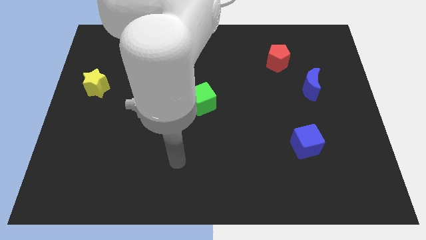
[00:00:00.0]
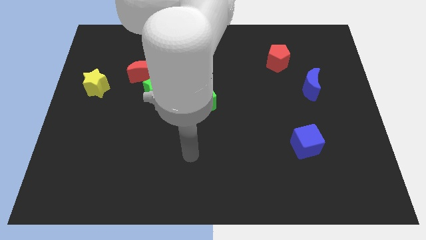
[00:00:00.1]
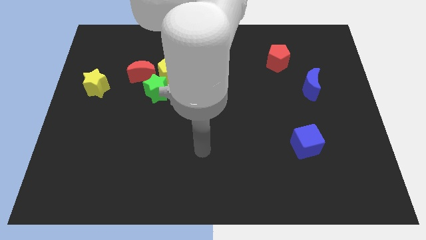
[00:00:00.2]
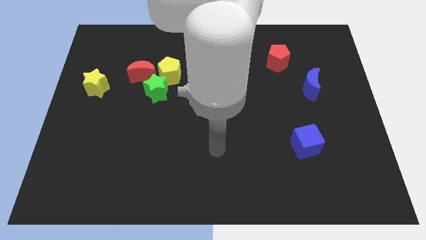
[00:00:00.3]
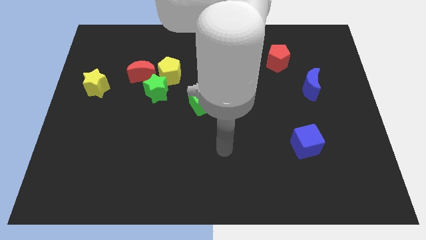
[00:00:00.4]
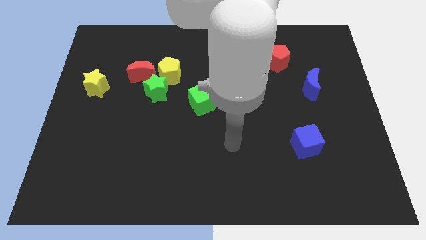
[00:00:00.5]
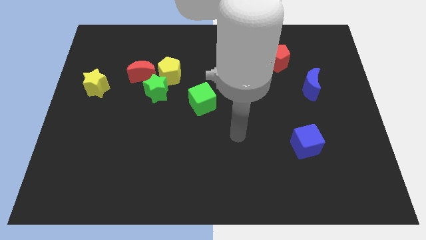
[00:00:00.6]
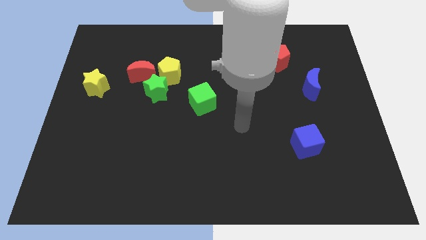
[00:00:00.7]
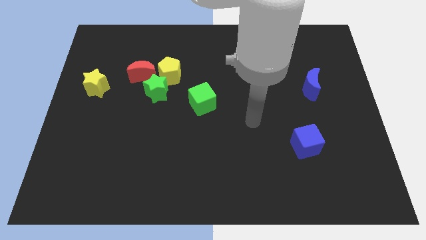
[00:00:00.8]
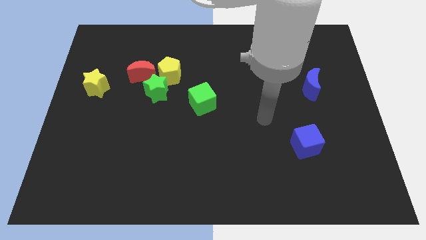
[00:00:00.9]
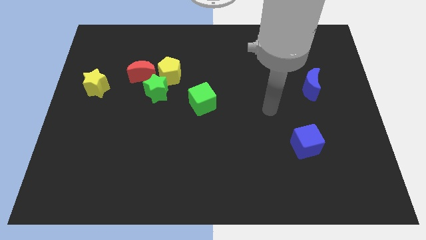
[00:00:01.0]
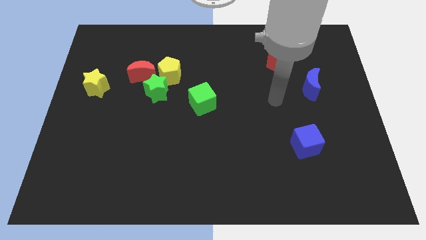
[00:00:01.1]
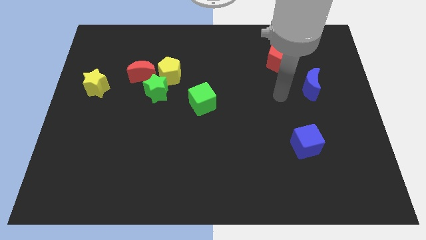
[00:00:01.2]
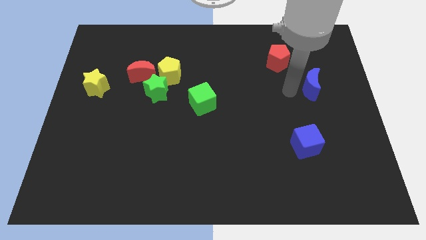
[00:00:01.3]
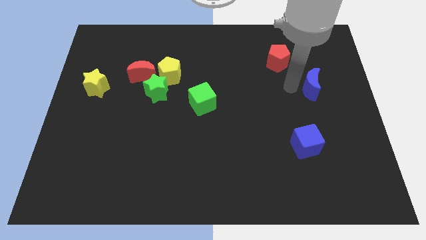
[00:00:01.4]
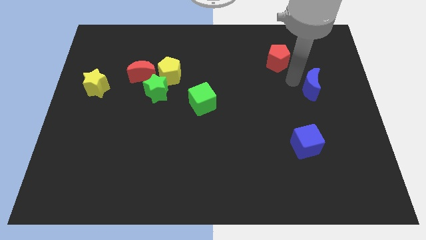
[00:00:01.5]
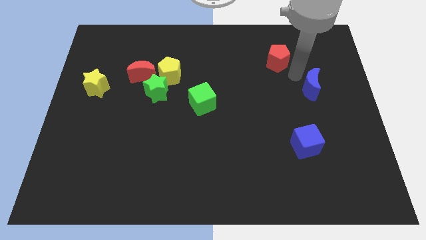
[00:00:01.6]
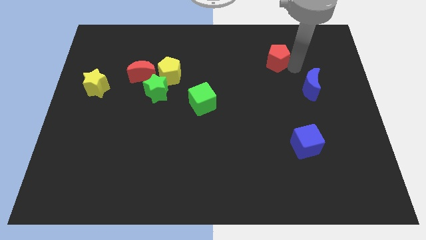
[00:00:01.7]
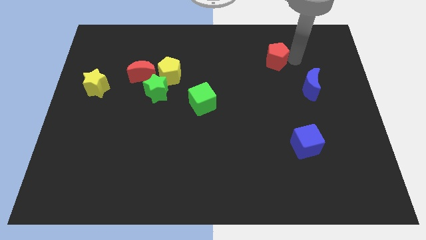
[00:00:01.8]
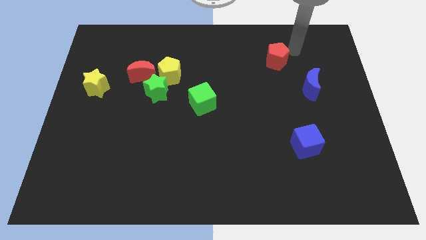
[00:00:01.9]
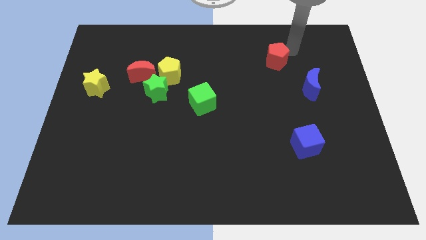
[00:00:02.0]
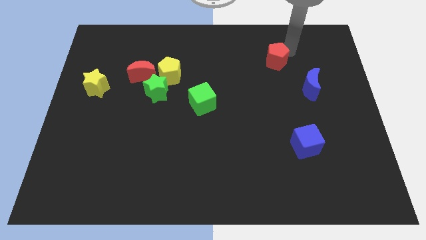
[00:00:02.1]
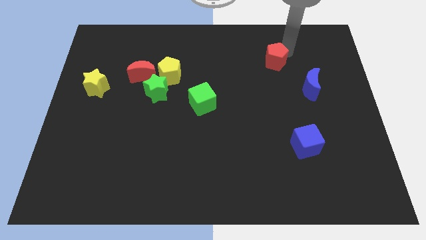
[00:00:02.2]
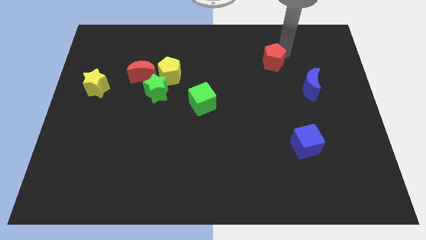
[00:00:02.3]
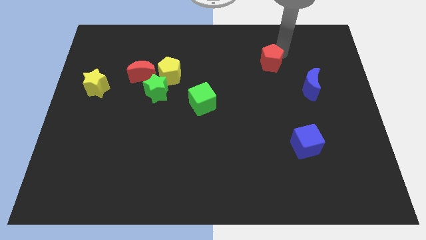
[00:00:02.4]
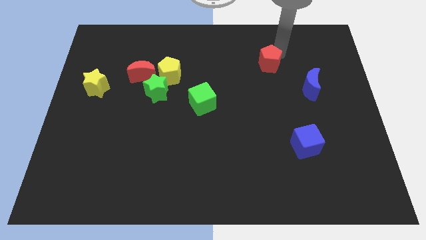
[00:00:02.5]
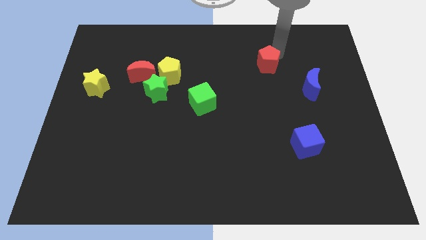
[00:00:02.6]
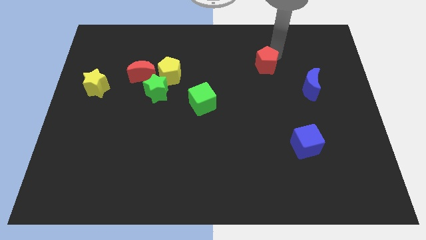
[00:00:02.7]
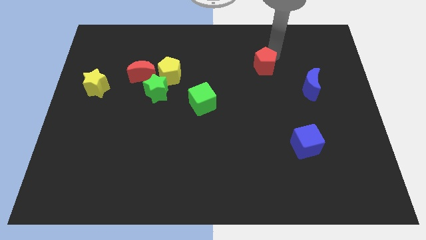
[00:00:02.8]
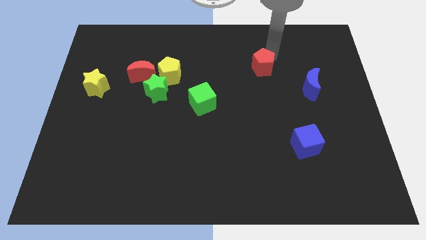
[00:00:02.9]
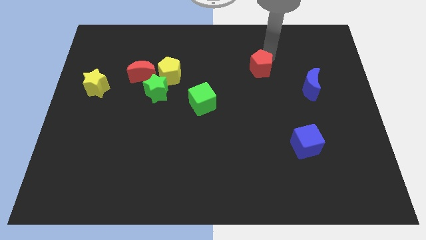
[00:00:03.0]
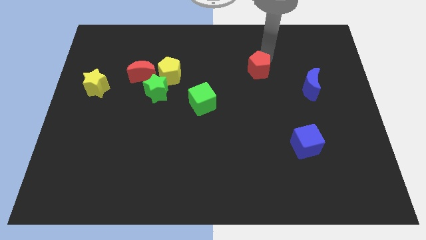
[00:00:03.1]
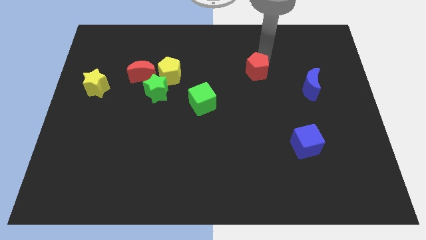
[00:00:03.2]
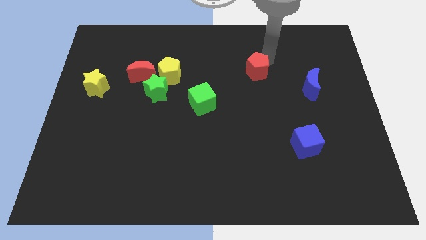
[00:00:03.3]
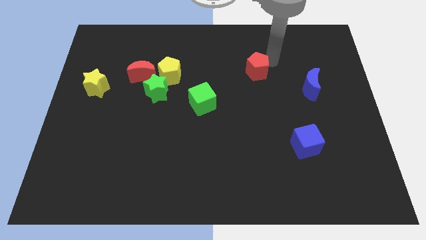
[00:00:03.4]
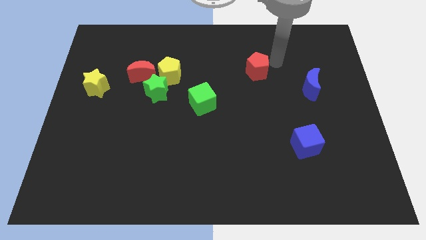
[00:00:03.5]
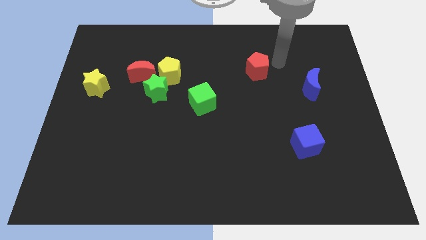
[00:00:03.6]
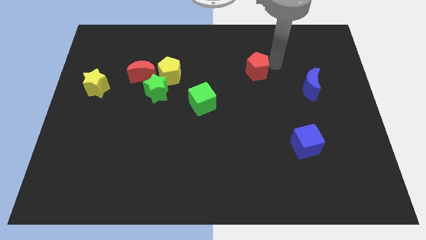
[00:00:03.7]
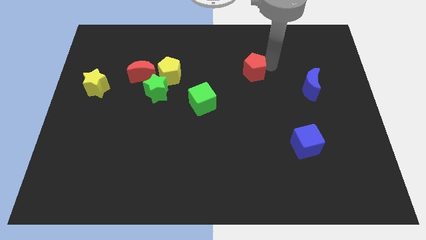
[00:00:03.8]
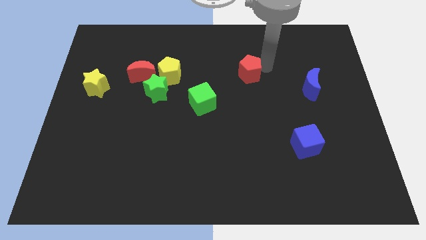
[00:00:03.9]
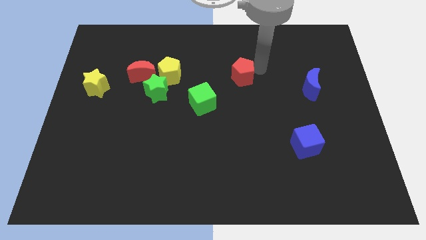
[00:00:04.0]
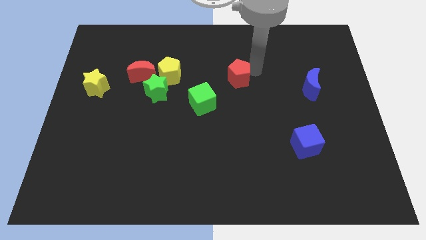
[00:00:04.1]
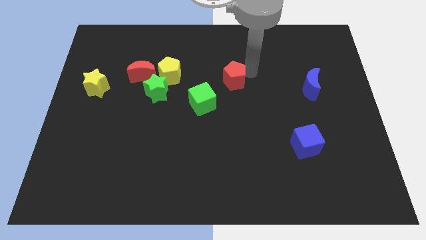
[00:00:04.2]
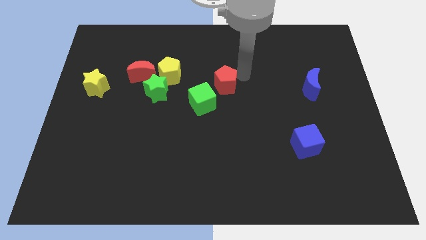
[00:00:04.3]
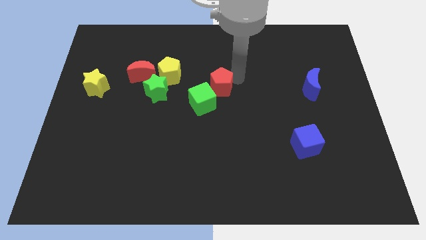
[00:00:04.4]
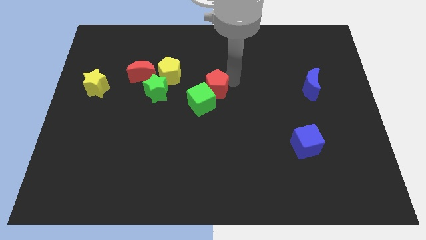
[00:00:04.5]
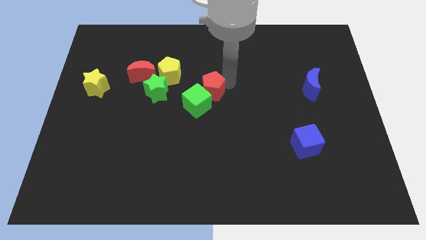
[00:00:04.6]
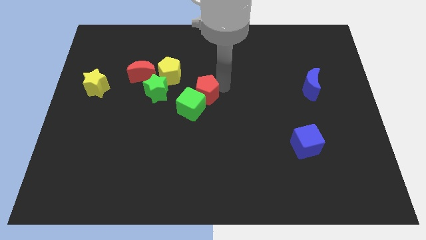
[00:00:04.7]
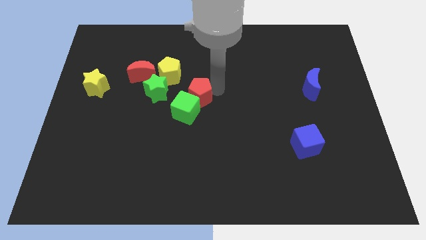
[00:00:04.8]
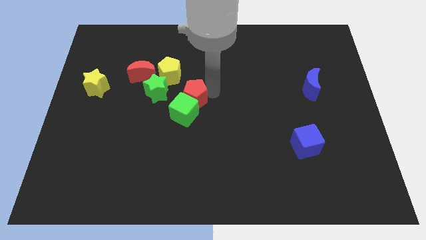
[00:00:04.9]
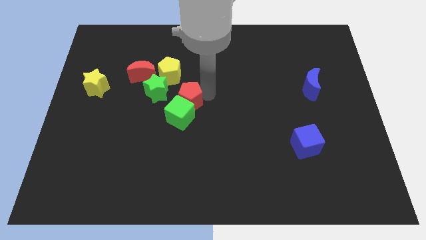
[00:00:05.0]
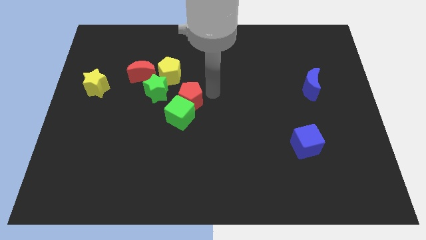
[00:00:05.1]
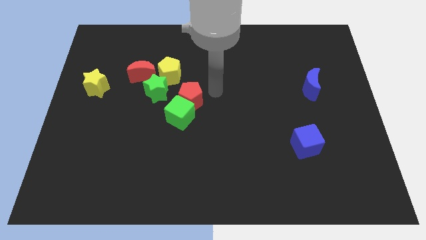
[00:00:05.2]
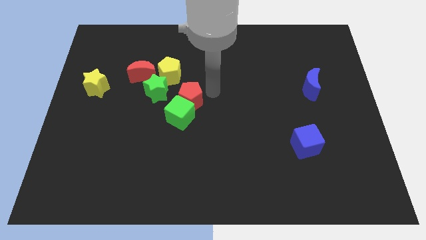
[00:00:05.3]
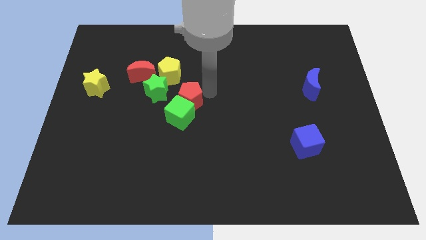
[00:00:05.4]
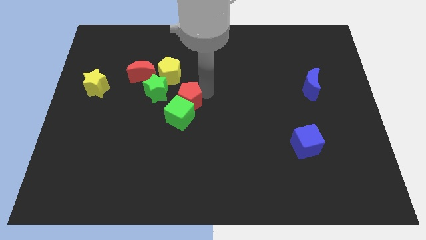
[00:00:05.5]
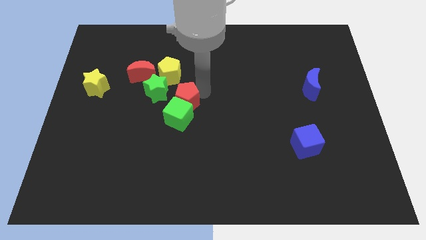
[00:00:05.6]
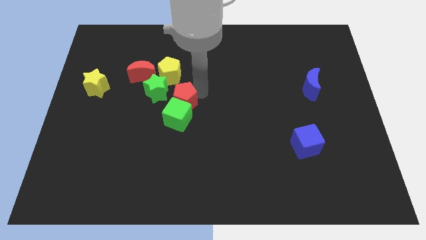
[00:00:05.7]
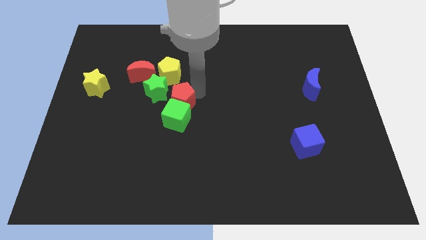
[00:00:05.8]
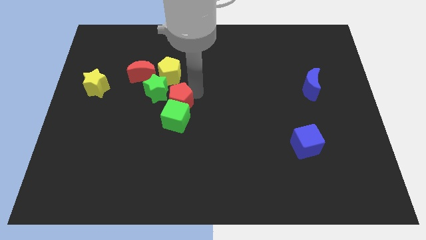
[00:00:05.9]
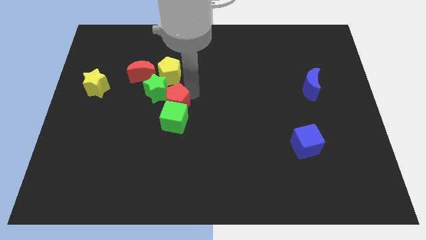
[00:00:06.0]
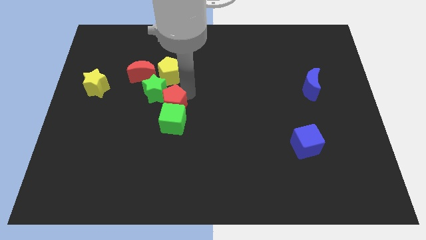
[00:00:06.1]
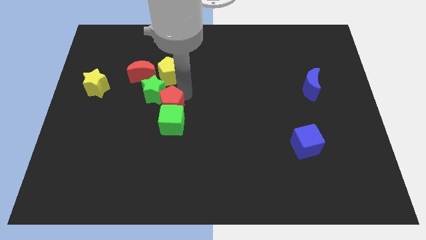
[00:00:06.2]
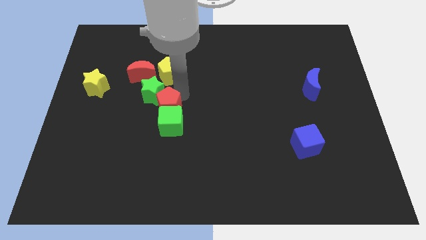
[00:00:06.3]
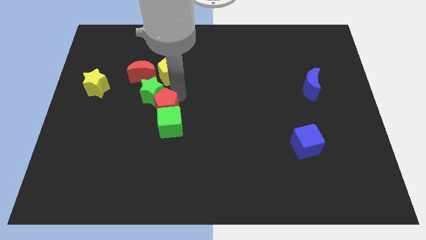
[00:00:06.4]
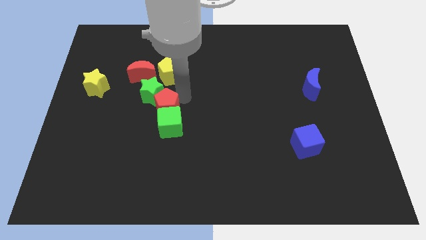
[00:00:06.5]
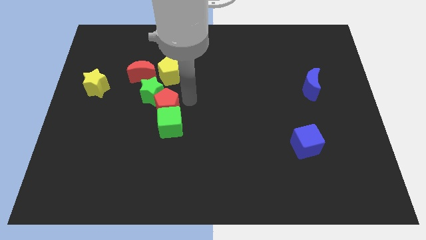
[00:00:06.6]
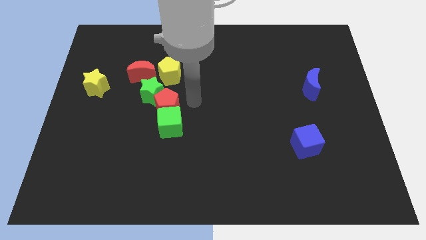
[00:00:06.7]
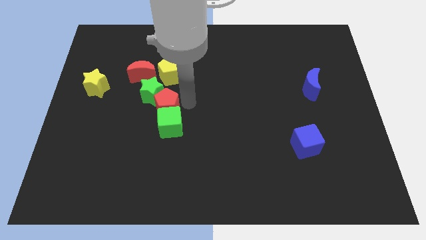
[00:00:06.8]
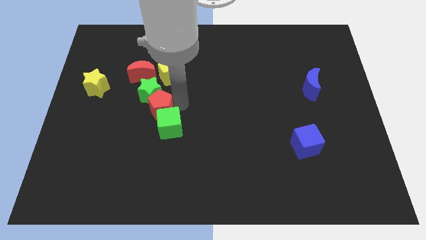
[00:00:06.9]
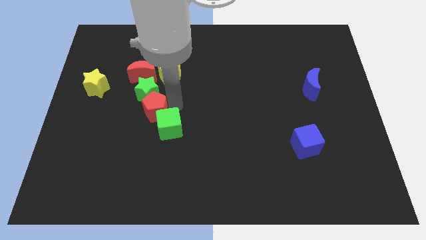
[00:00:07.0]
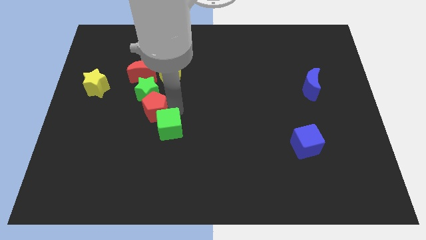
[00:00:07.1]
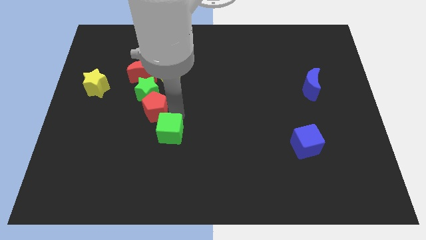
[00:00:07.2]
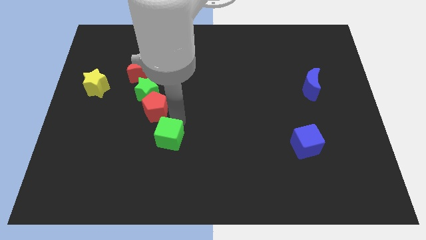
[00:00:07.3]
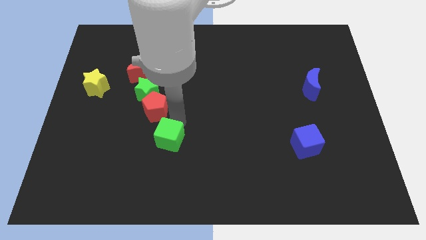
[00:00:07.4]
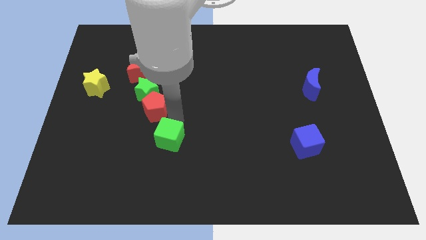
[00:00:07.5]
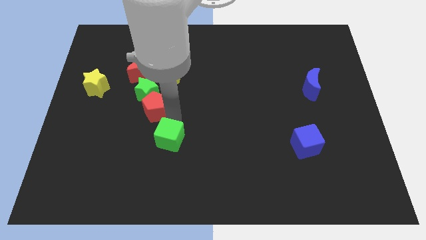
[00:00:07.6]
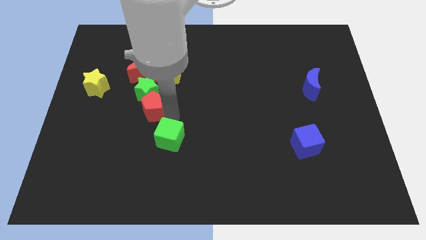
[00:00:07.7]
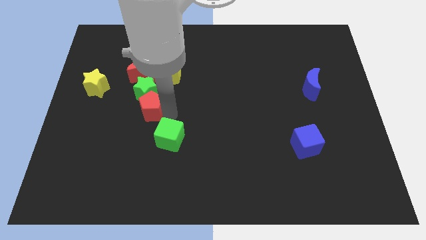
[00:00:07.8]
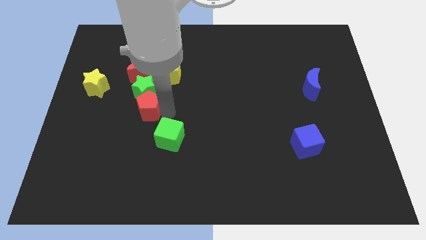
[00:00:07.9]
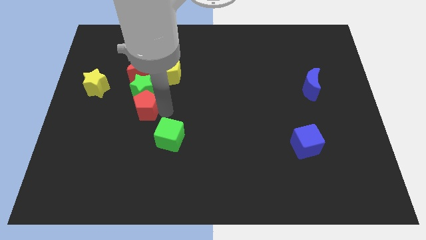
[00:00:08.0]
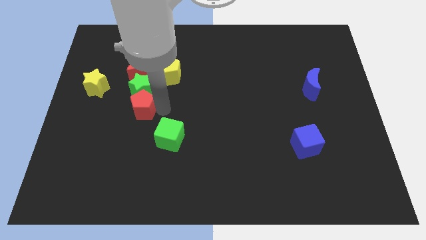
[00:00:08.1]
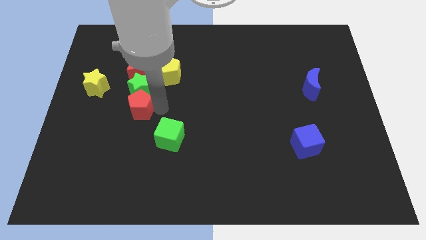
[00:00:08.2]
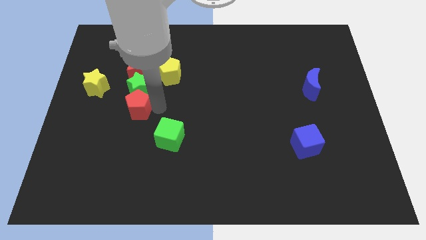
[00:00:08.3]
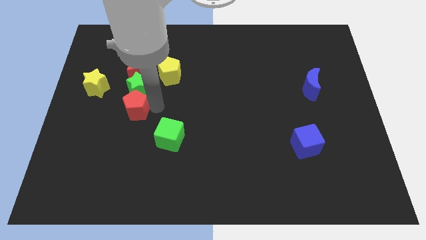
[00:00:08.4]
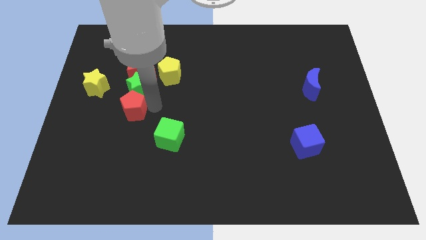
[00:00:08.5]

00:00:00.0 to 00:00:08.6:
slide the red pentagon to the bottom right side of the yellow star
